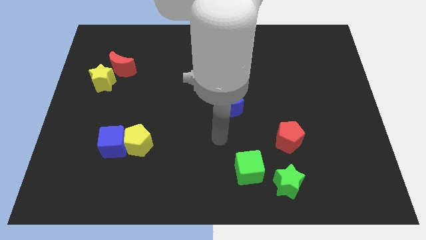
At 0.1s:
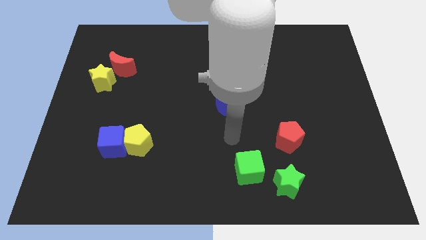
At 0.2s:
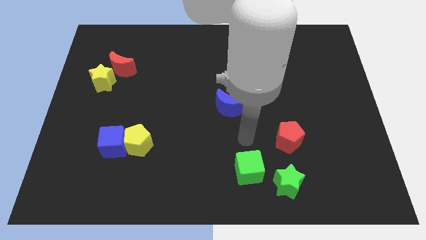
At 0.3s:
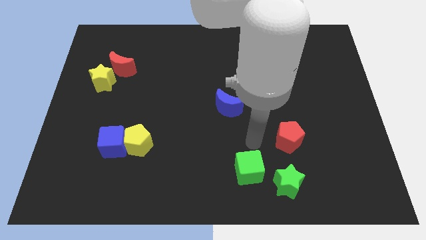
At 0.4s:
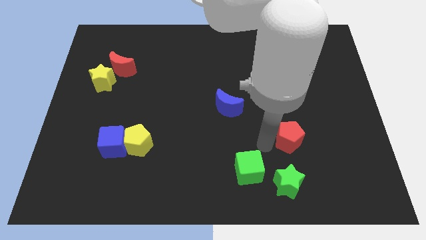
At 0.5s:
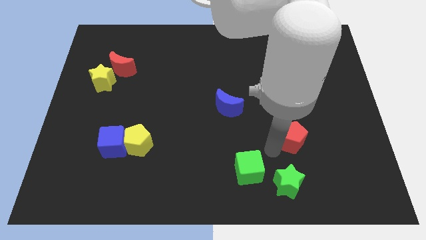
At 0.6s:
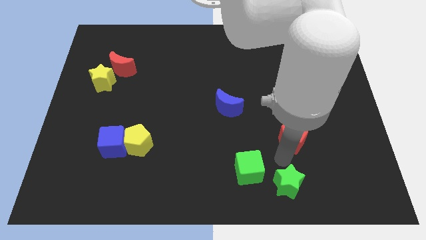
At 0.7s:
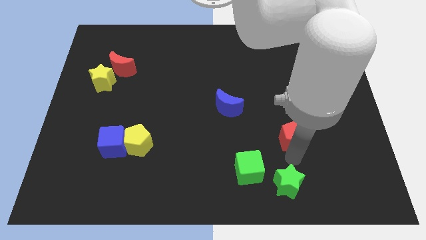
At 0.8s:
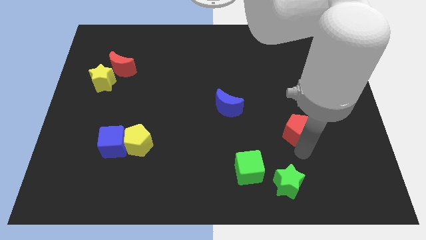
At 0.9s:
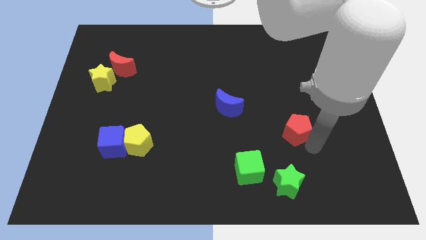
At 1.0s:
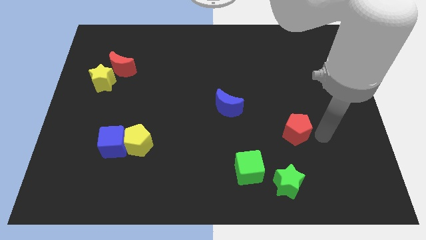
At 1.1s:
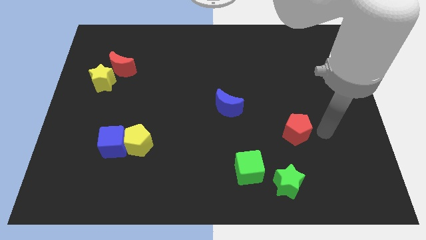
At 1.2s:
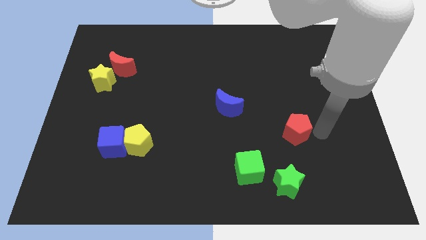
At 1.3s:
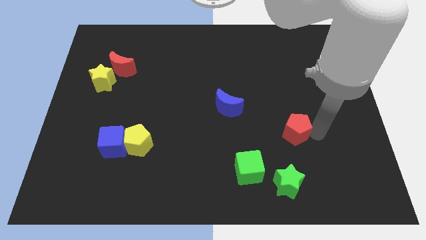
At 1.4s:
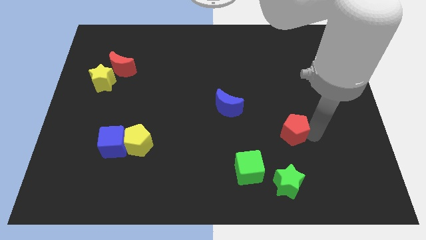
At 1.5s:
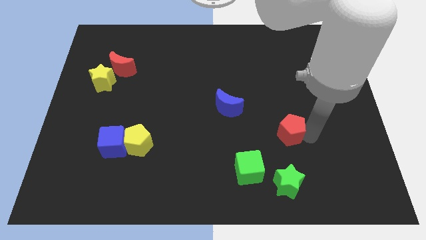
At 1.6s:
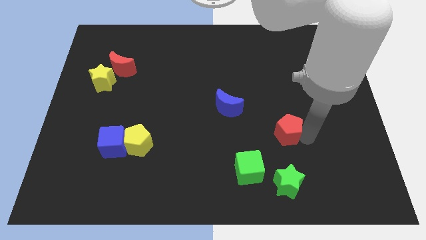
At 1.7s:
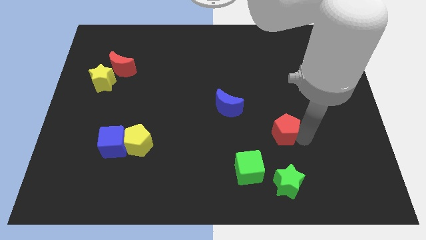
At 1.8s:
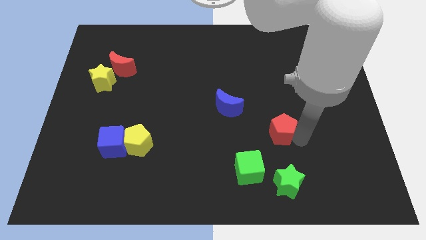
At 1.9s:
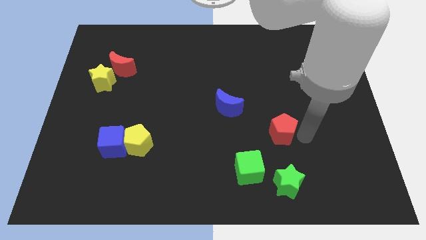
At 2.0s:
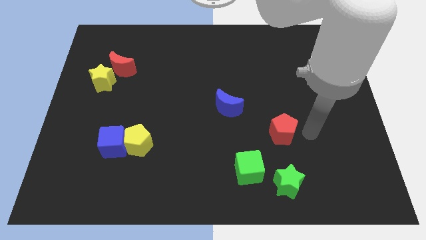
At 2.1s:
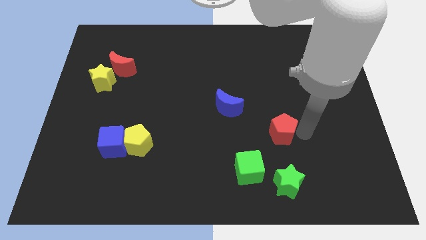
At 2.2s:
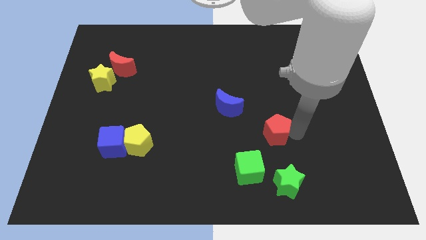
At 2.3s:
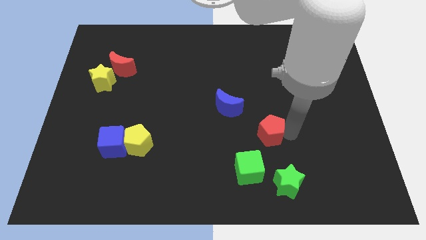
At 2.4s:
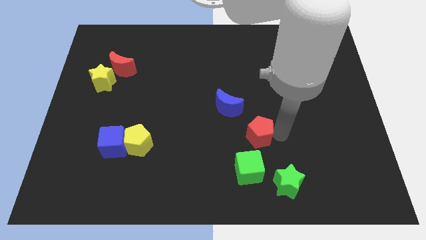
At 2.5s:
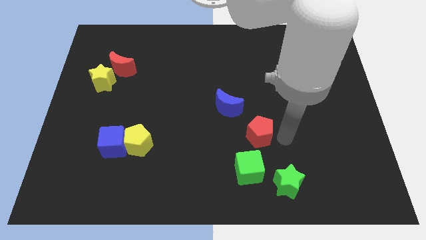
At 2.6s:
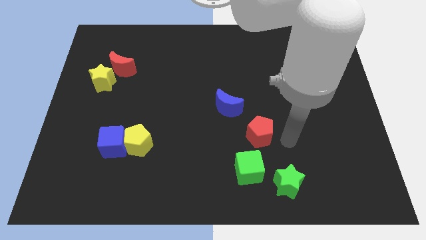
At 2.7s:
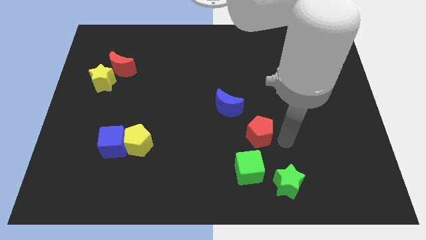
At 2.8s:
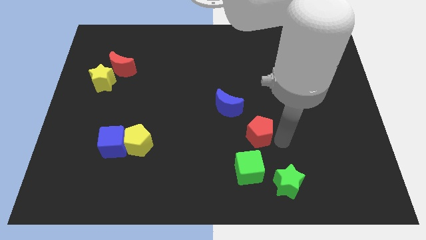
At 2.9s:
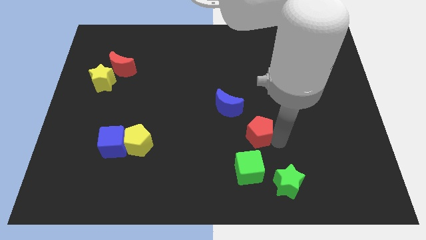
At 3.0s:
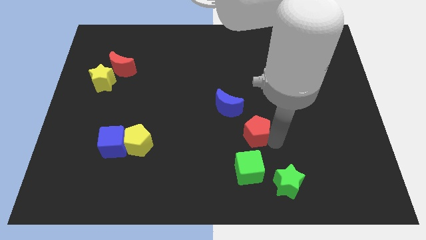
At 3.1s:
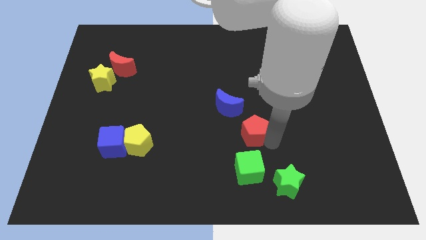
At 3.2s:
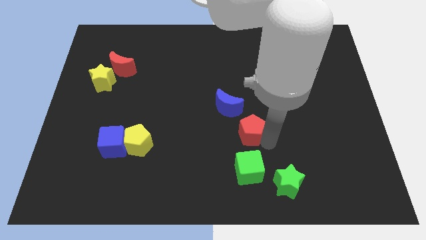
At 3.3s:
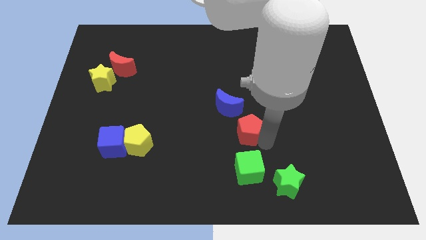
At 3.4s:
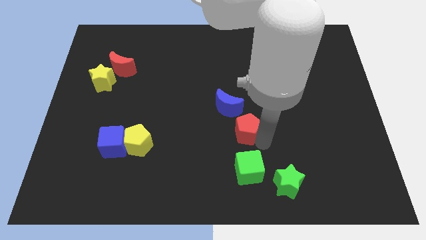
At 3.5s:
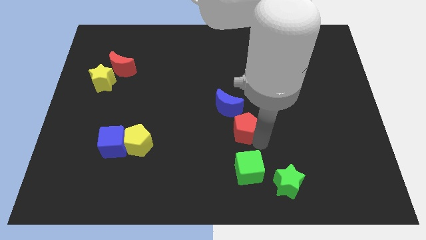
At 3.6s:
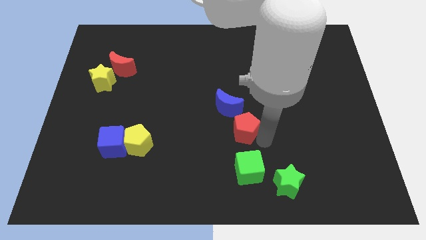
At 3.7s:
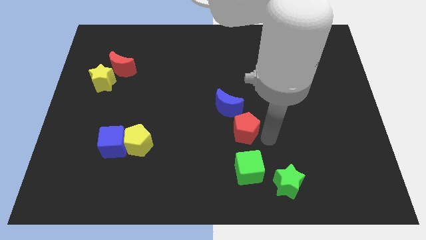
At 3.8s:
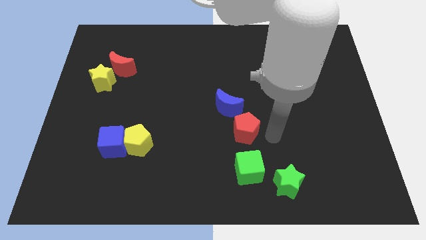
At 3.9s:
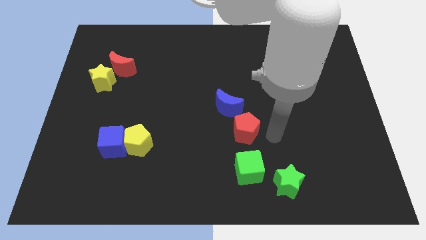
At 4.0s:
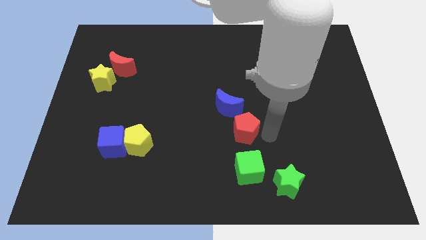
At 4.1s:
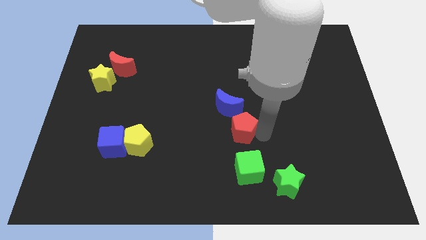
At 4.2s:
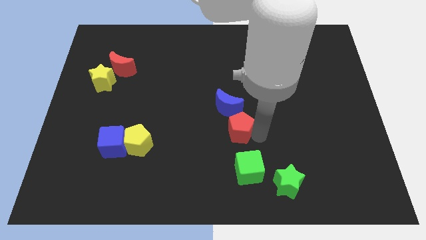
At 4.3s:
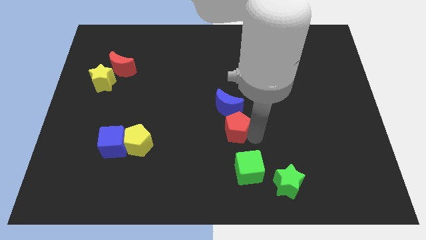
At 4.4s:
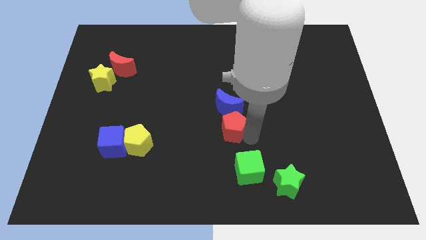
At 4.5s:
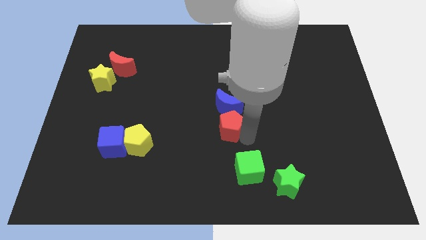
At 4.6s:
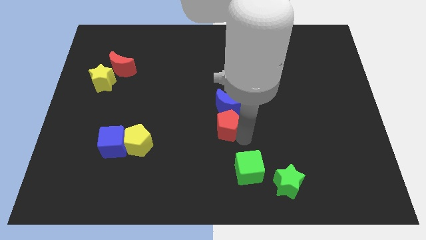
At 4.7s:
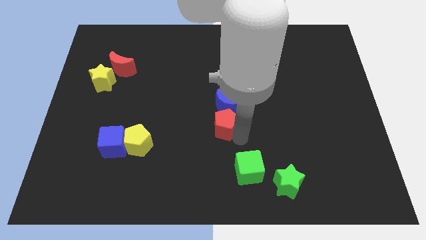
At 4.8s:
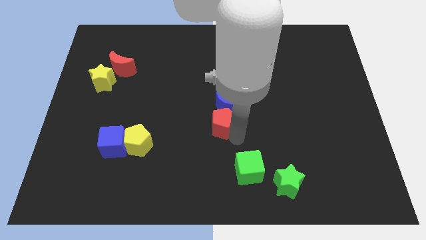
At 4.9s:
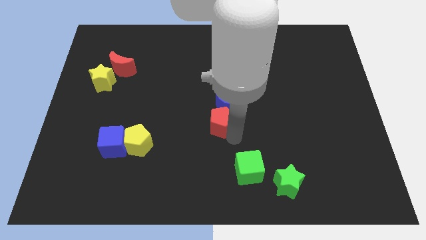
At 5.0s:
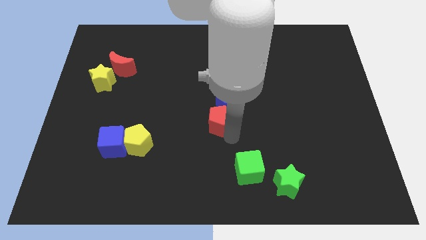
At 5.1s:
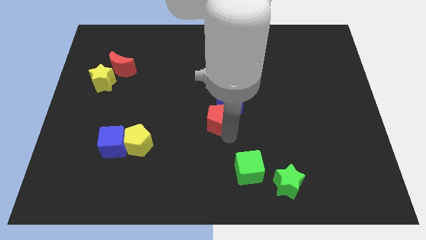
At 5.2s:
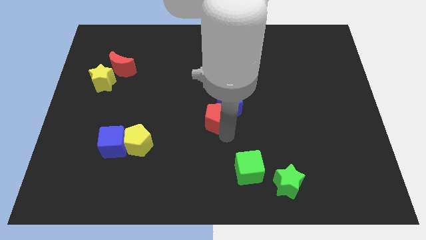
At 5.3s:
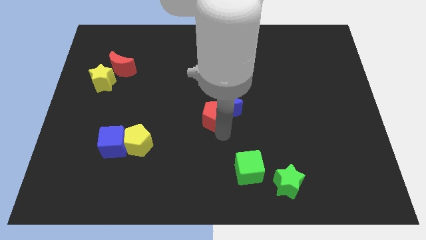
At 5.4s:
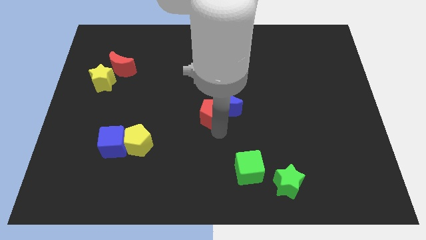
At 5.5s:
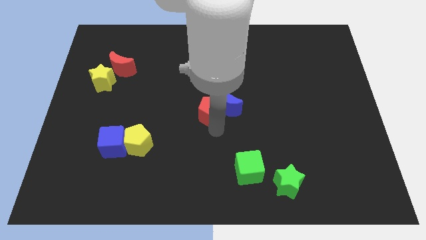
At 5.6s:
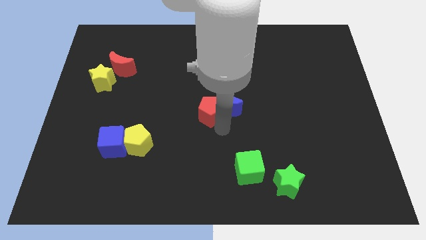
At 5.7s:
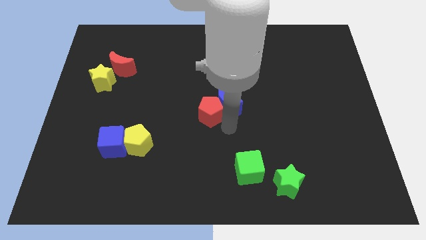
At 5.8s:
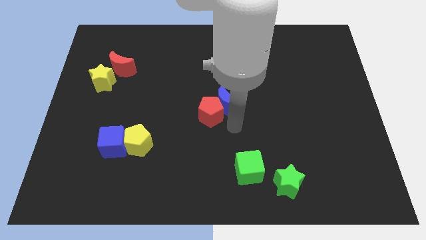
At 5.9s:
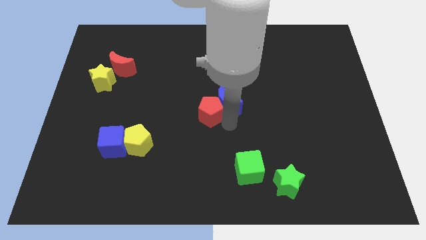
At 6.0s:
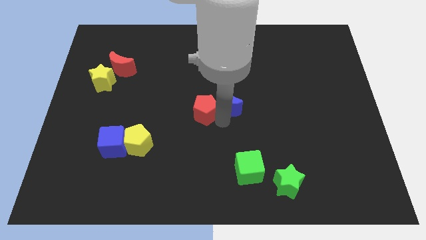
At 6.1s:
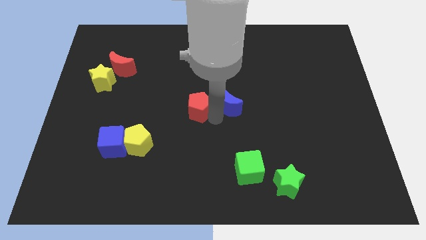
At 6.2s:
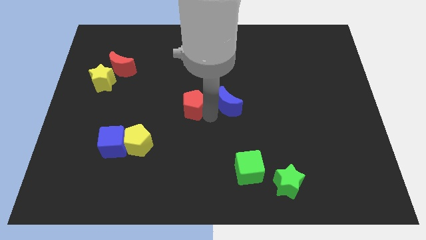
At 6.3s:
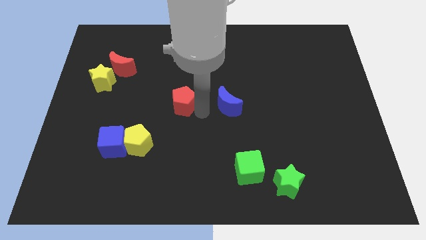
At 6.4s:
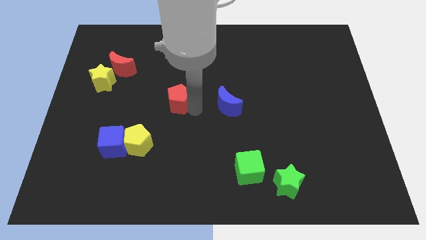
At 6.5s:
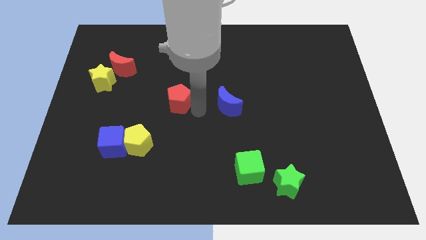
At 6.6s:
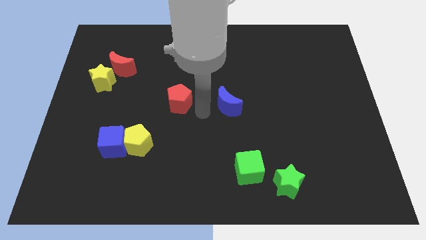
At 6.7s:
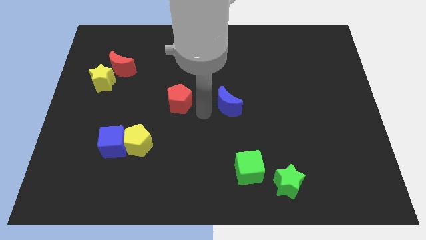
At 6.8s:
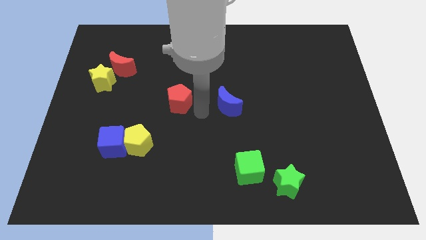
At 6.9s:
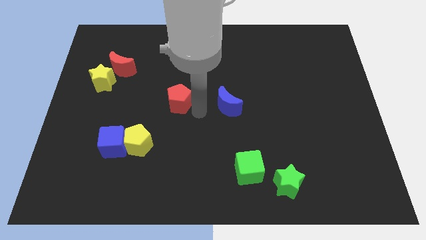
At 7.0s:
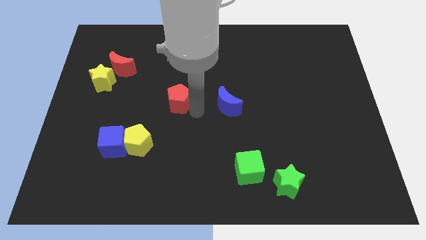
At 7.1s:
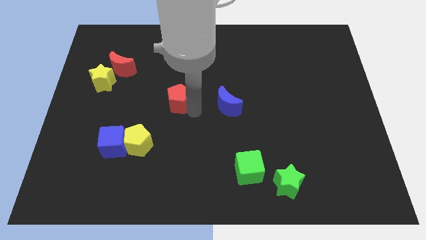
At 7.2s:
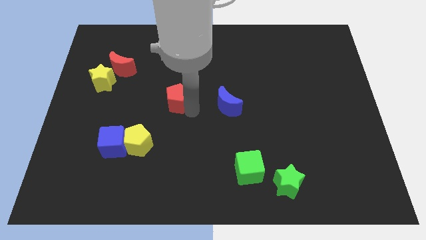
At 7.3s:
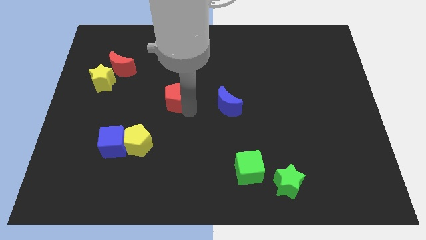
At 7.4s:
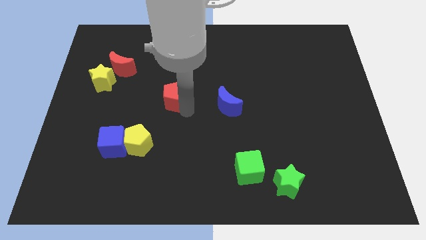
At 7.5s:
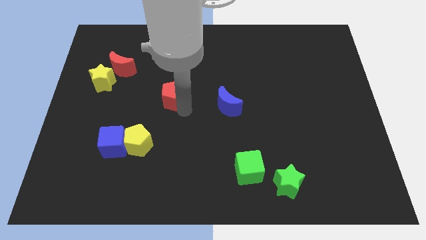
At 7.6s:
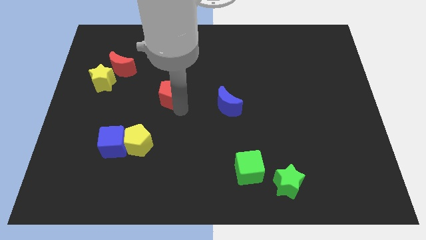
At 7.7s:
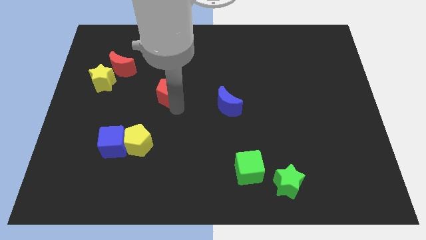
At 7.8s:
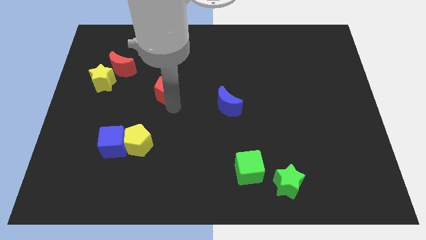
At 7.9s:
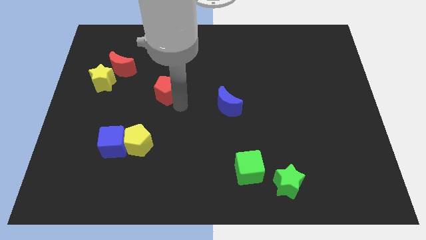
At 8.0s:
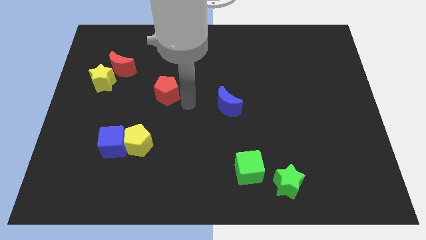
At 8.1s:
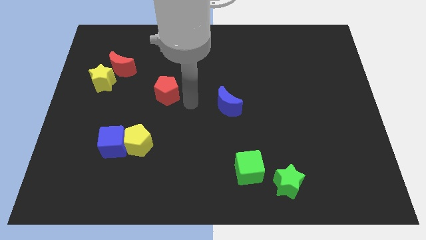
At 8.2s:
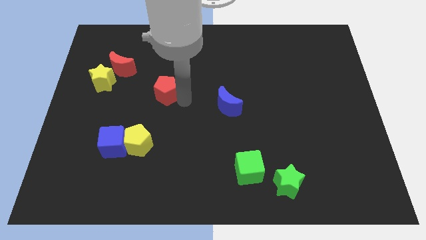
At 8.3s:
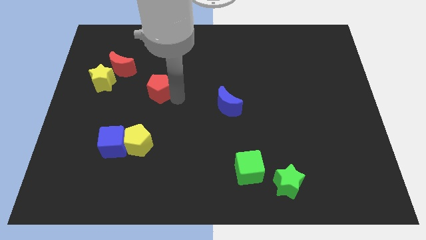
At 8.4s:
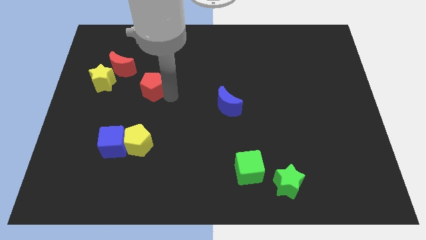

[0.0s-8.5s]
move the red pentagon to the bottom right of the red moon
